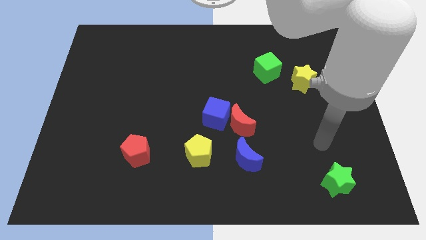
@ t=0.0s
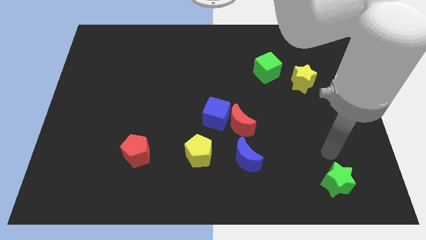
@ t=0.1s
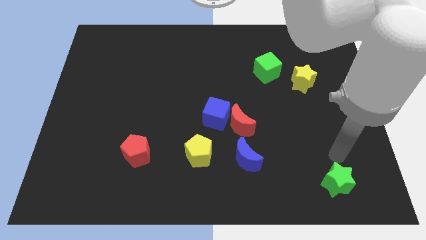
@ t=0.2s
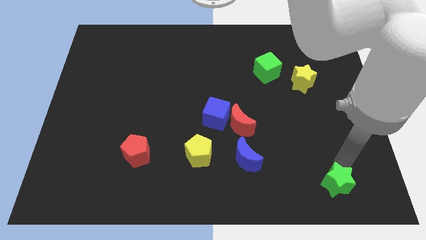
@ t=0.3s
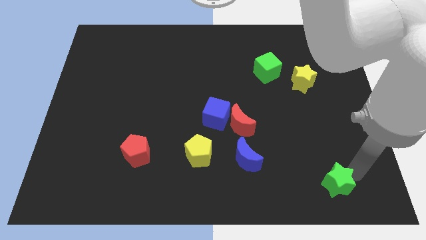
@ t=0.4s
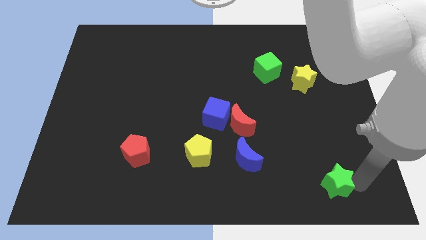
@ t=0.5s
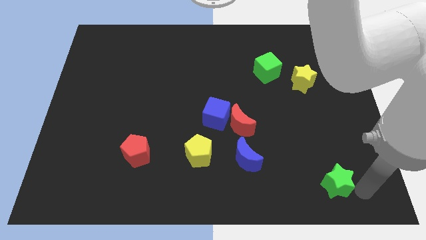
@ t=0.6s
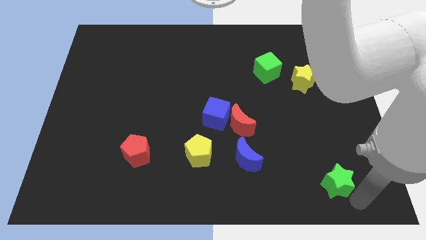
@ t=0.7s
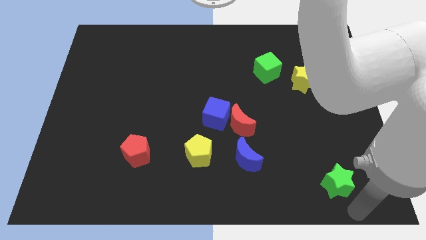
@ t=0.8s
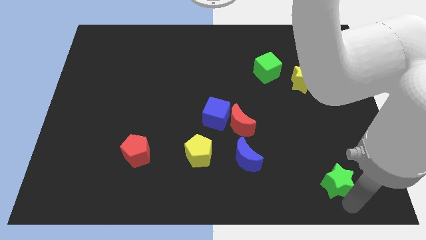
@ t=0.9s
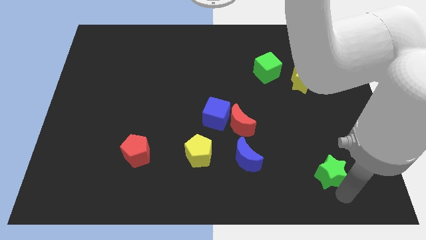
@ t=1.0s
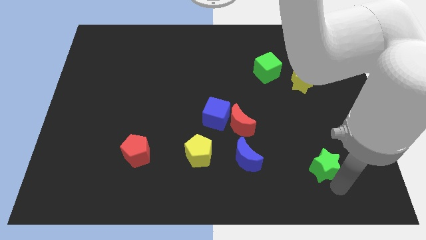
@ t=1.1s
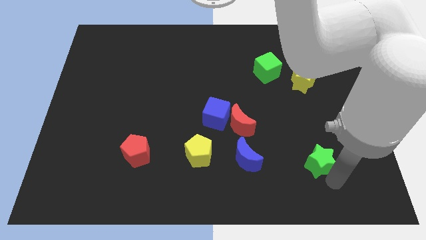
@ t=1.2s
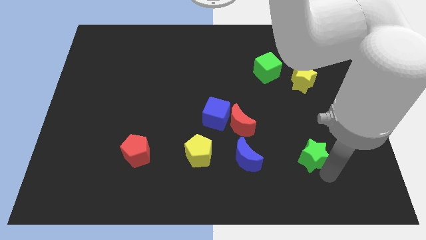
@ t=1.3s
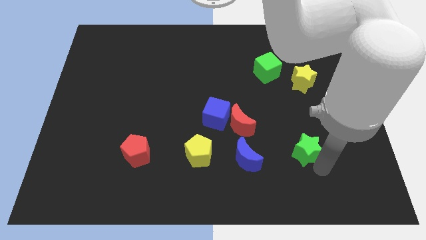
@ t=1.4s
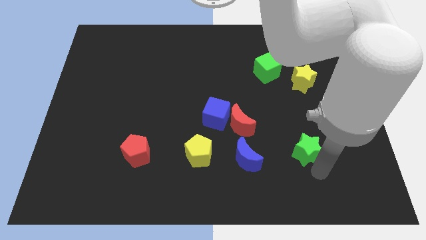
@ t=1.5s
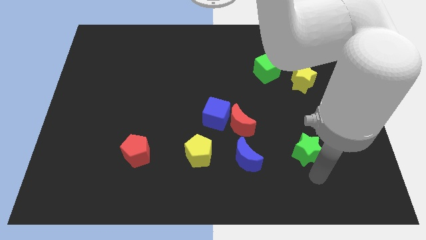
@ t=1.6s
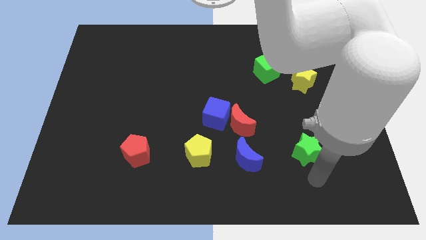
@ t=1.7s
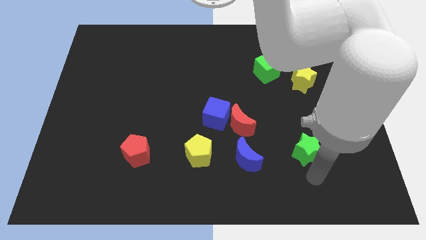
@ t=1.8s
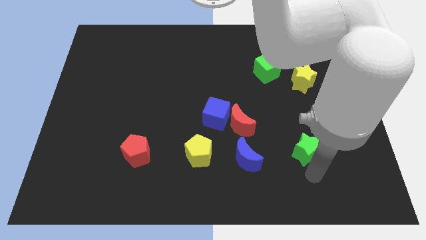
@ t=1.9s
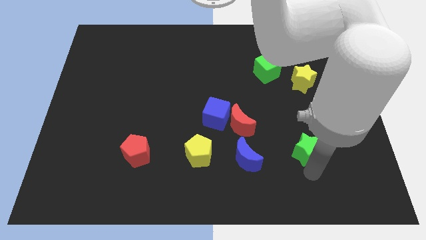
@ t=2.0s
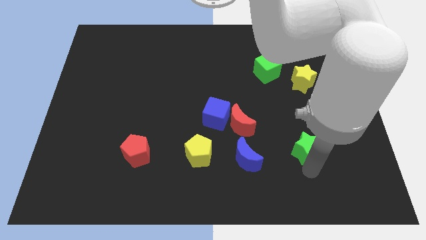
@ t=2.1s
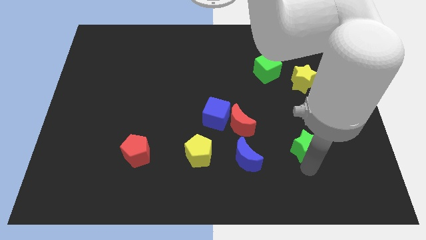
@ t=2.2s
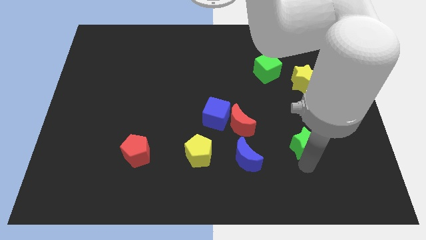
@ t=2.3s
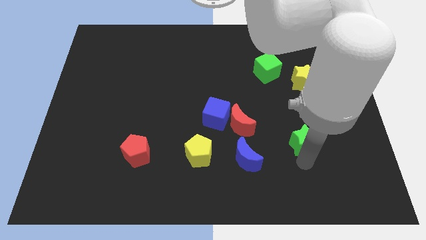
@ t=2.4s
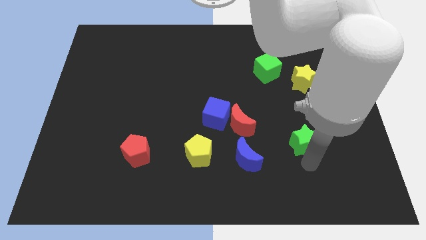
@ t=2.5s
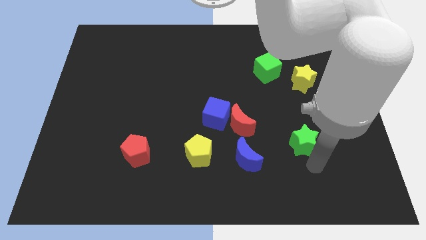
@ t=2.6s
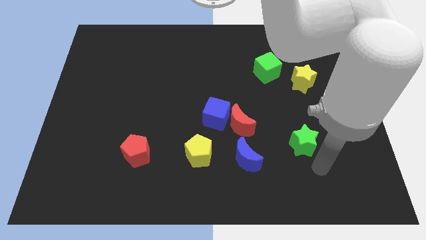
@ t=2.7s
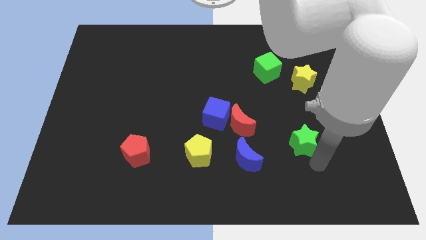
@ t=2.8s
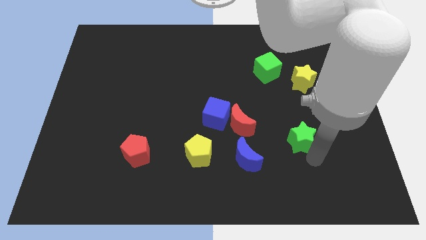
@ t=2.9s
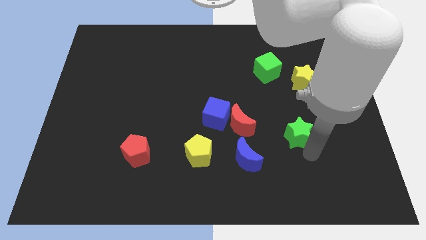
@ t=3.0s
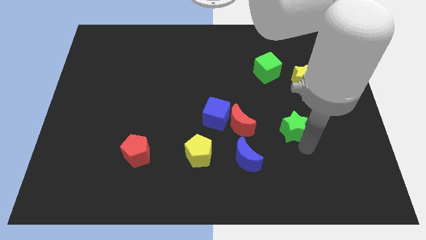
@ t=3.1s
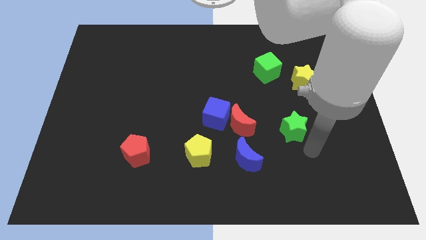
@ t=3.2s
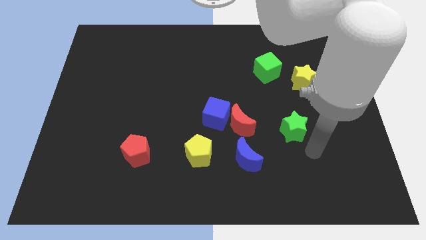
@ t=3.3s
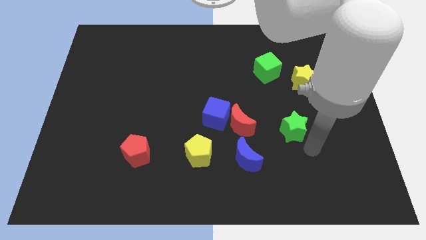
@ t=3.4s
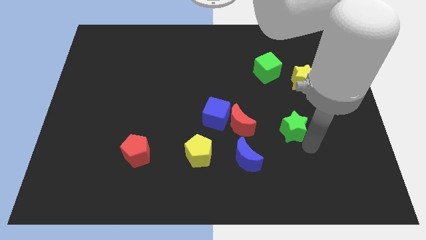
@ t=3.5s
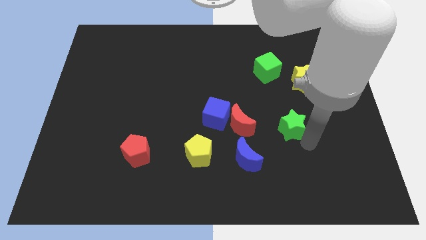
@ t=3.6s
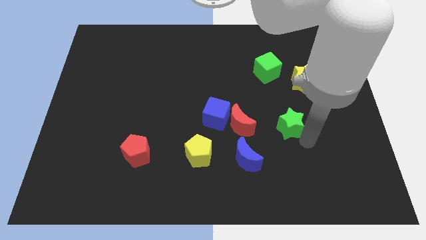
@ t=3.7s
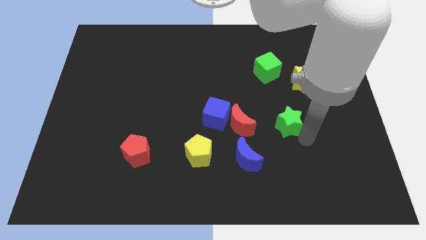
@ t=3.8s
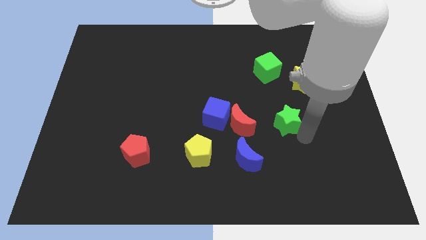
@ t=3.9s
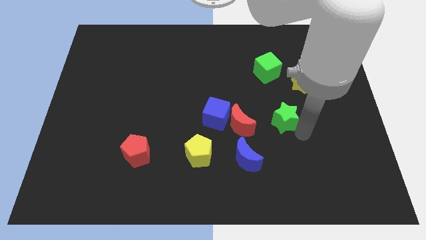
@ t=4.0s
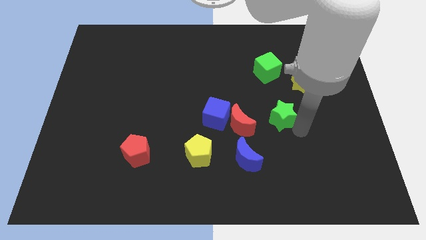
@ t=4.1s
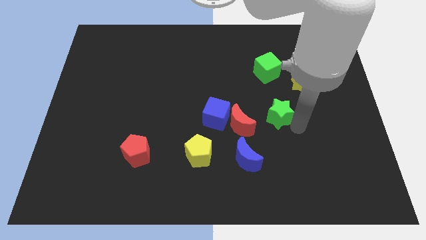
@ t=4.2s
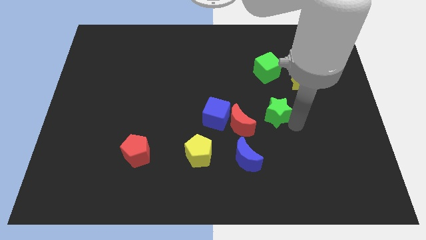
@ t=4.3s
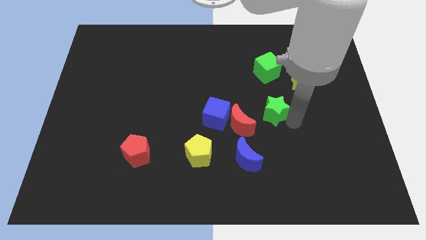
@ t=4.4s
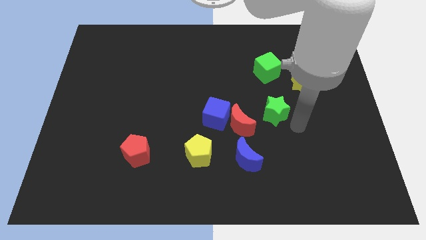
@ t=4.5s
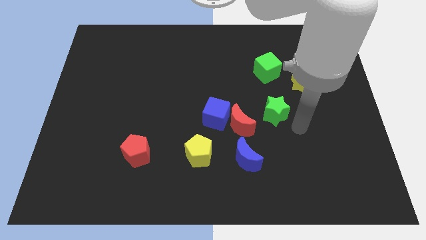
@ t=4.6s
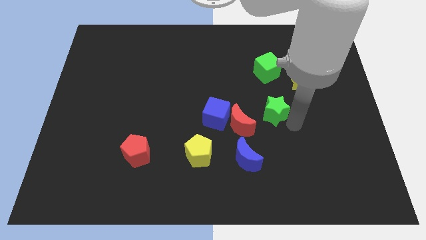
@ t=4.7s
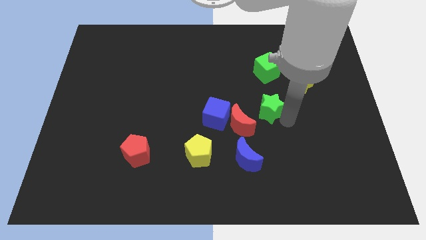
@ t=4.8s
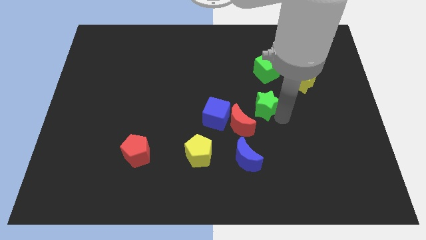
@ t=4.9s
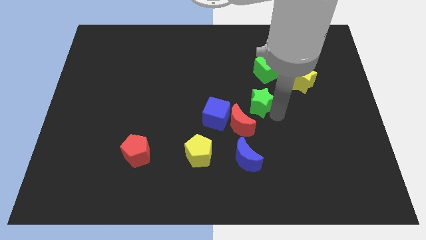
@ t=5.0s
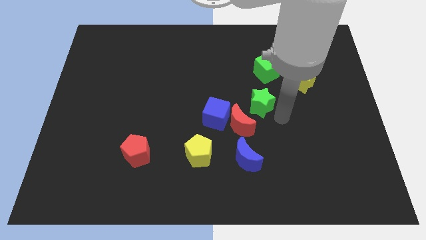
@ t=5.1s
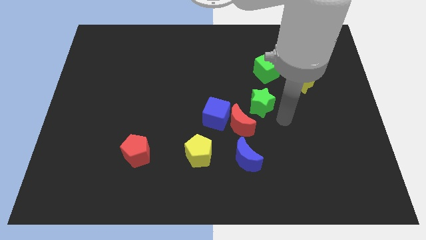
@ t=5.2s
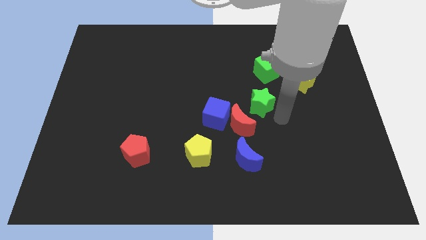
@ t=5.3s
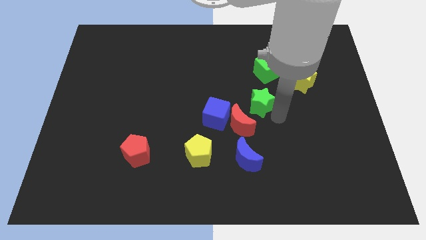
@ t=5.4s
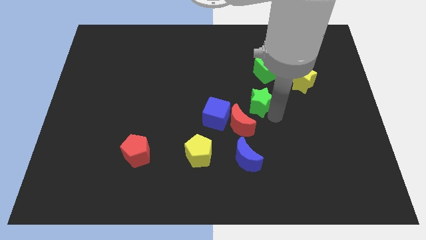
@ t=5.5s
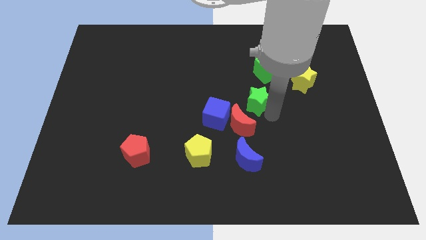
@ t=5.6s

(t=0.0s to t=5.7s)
push the green star to the top side of the red moon
